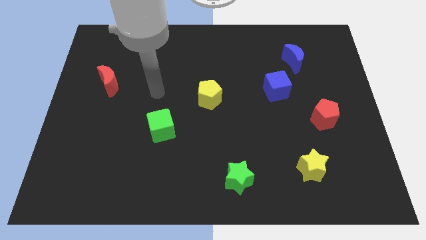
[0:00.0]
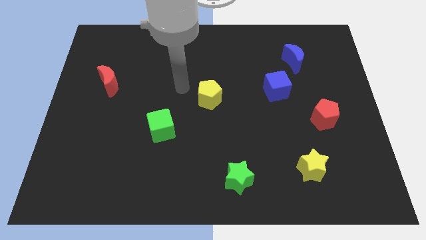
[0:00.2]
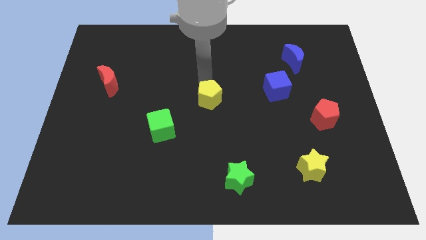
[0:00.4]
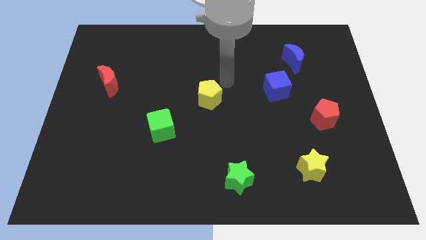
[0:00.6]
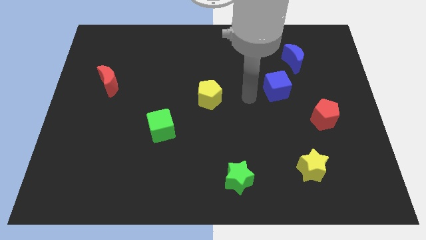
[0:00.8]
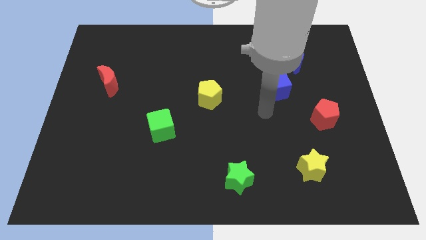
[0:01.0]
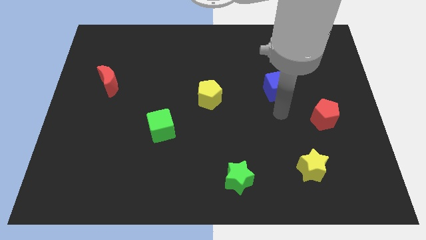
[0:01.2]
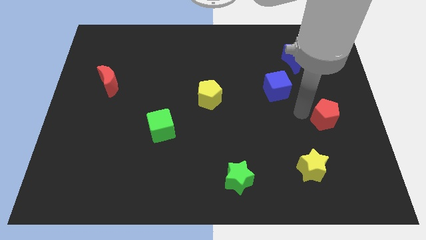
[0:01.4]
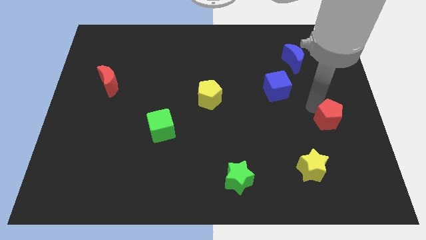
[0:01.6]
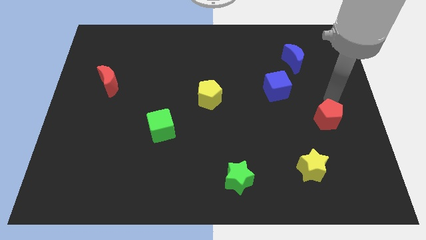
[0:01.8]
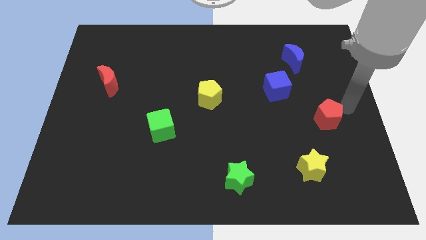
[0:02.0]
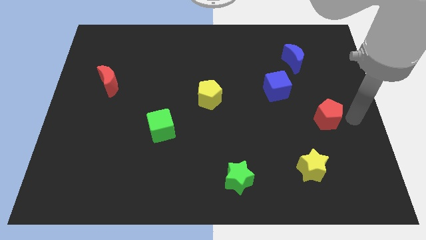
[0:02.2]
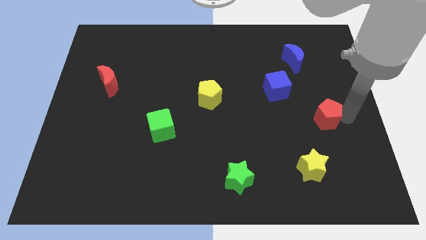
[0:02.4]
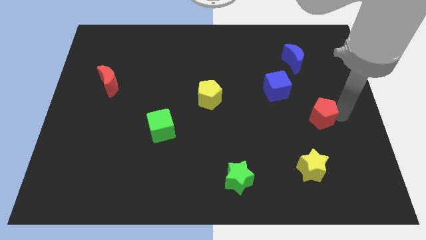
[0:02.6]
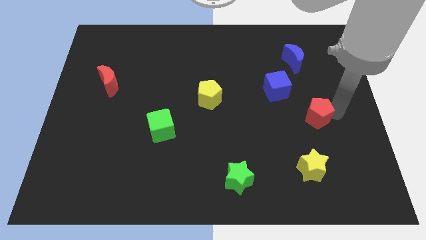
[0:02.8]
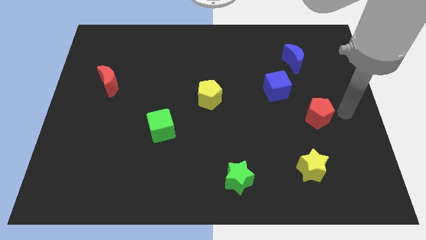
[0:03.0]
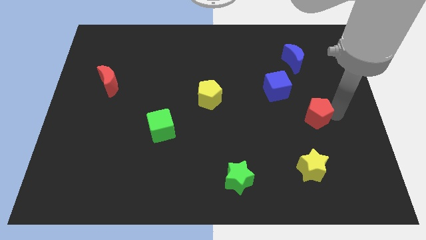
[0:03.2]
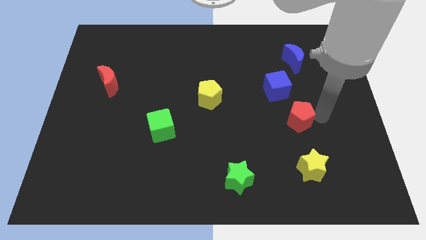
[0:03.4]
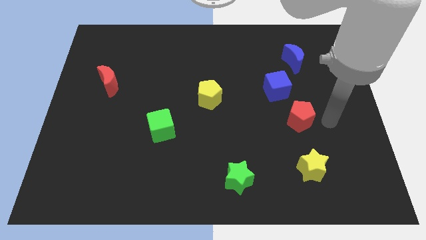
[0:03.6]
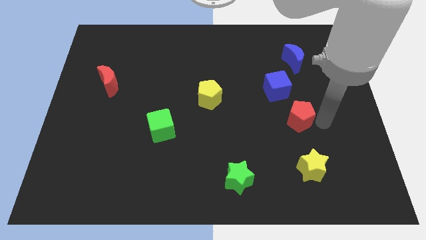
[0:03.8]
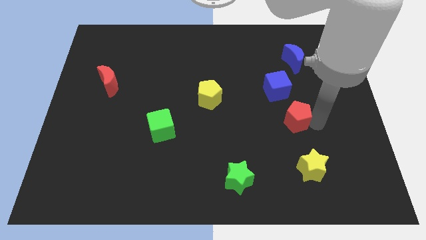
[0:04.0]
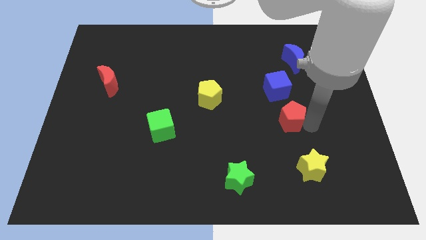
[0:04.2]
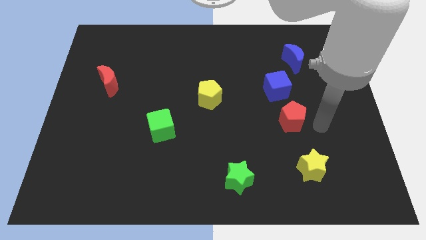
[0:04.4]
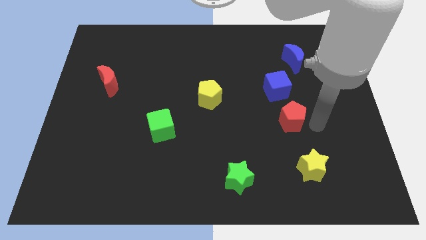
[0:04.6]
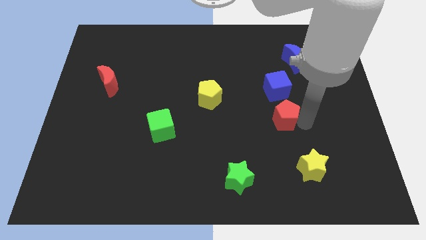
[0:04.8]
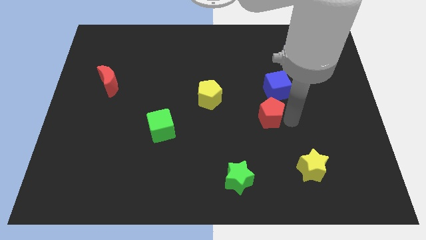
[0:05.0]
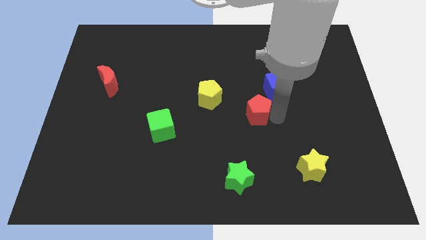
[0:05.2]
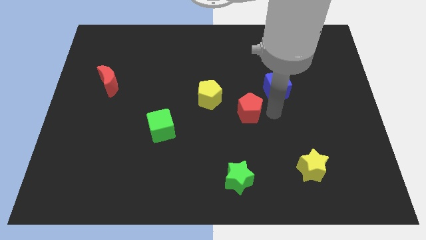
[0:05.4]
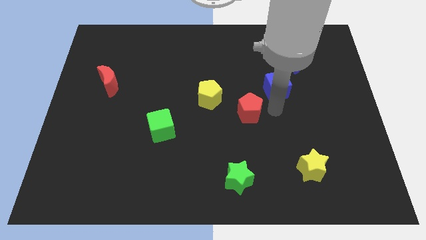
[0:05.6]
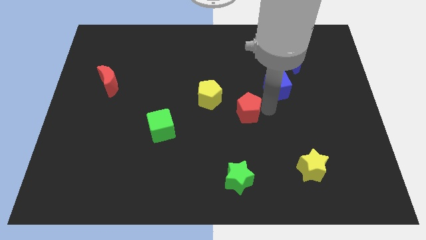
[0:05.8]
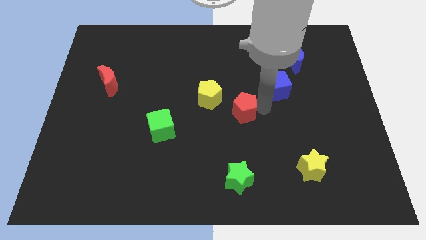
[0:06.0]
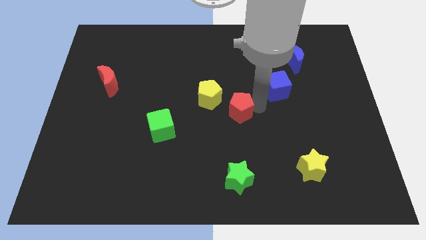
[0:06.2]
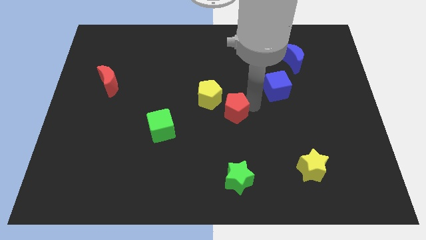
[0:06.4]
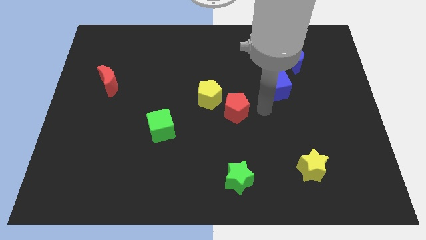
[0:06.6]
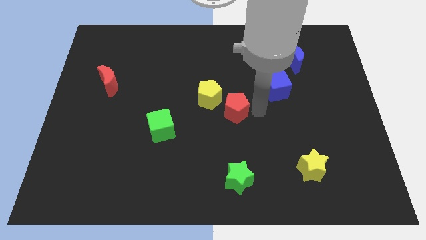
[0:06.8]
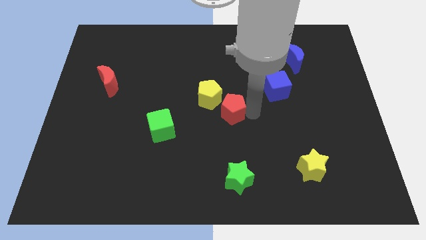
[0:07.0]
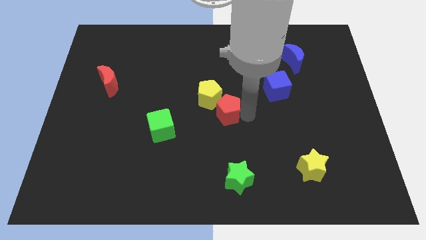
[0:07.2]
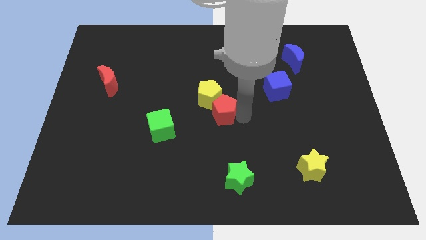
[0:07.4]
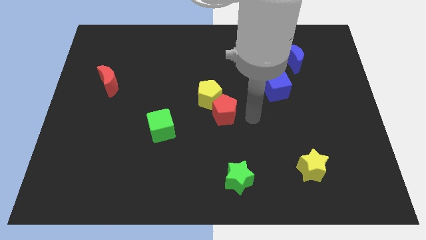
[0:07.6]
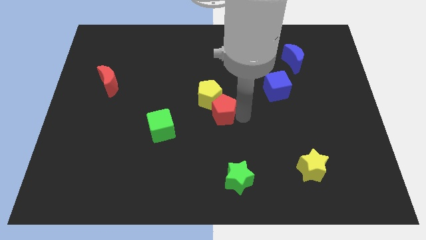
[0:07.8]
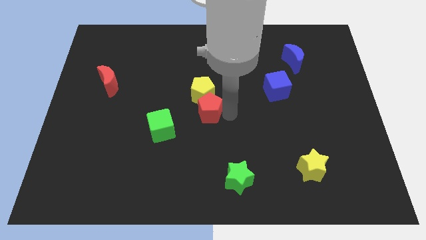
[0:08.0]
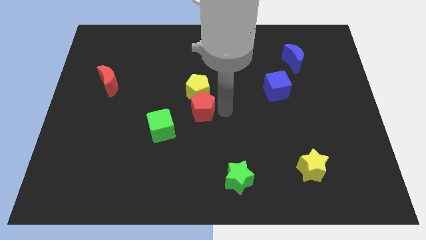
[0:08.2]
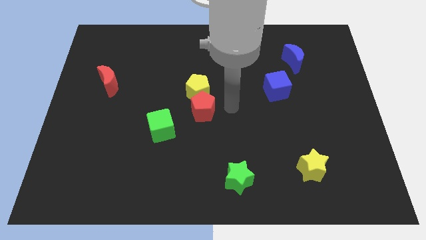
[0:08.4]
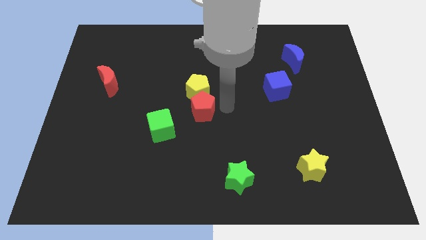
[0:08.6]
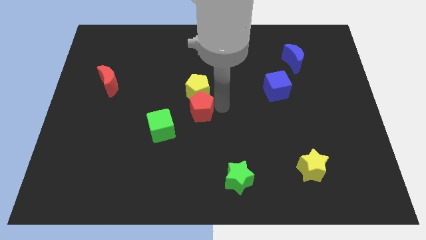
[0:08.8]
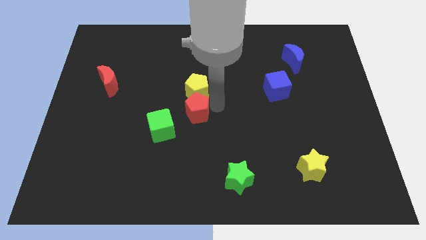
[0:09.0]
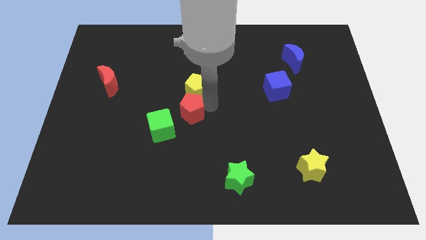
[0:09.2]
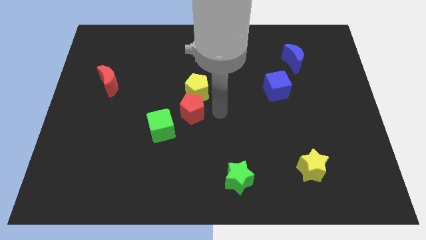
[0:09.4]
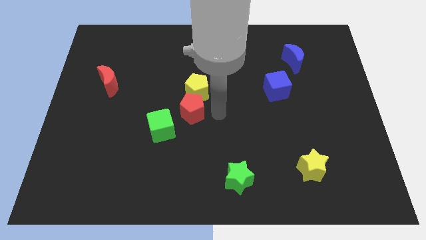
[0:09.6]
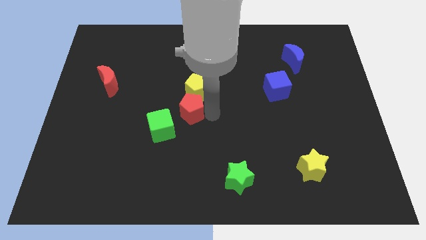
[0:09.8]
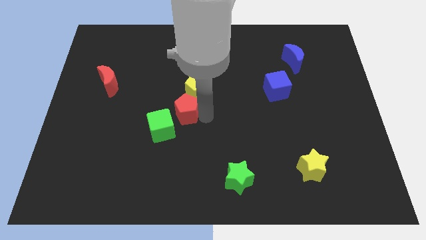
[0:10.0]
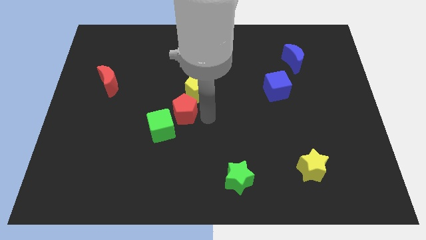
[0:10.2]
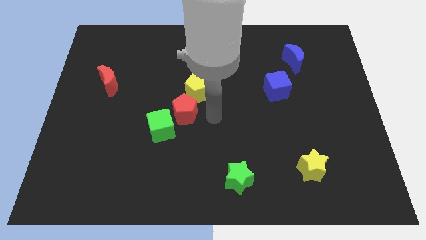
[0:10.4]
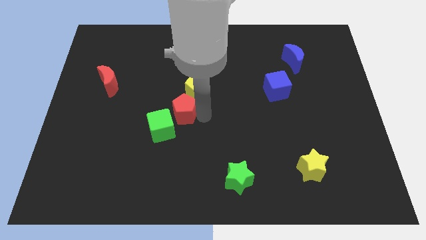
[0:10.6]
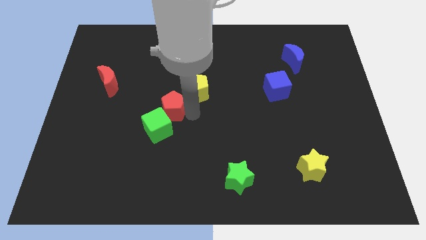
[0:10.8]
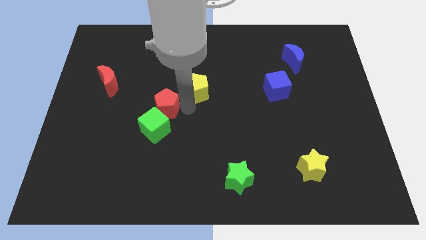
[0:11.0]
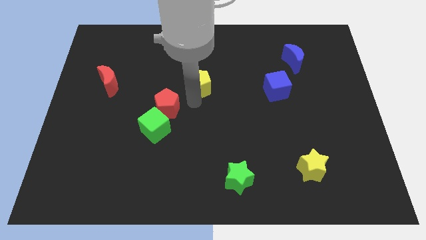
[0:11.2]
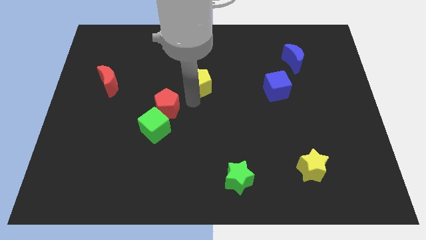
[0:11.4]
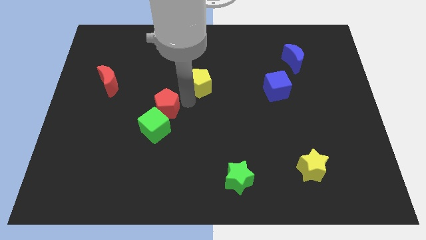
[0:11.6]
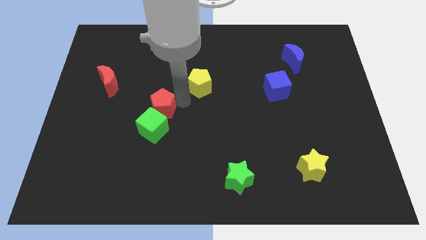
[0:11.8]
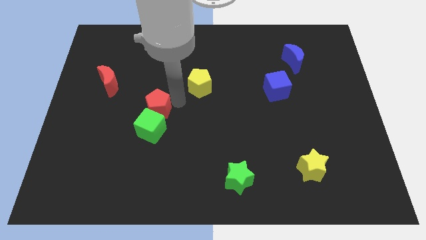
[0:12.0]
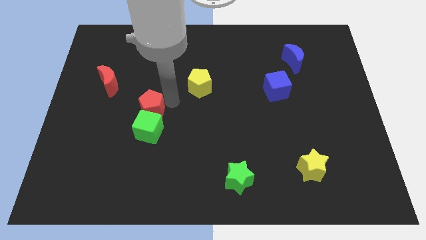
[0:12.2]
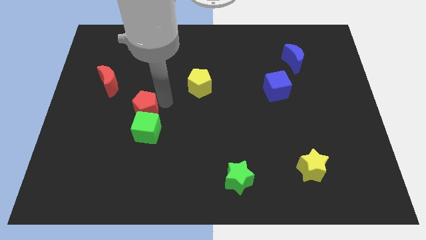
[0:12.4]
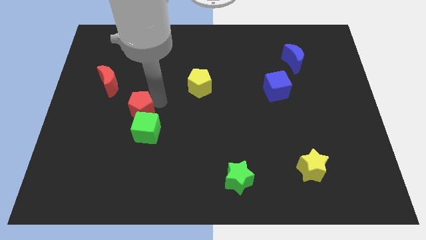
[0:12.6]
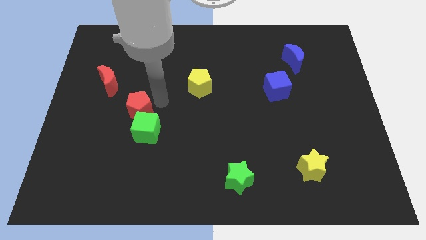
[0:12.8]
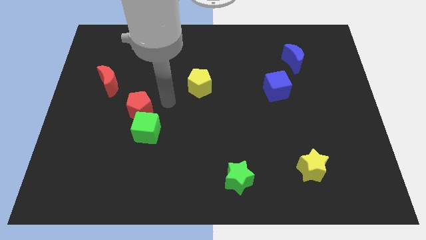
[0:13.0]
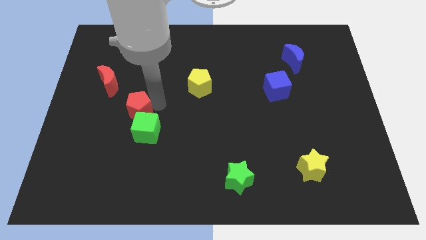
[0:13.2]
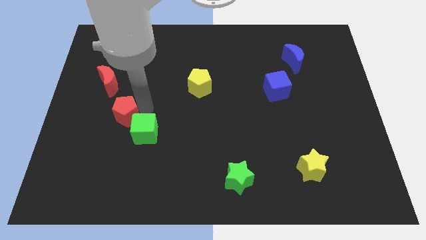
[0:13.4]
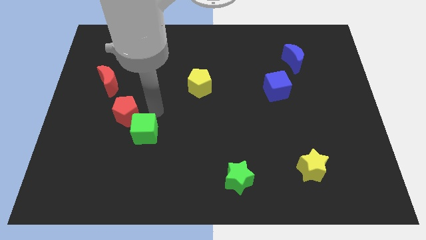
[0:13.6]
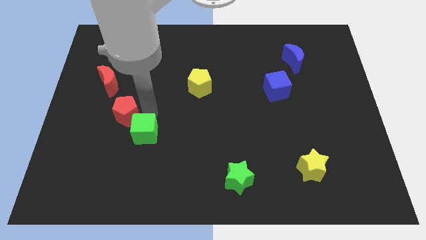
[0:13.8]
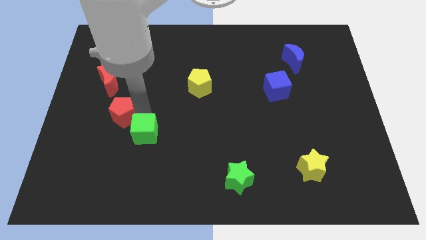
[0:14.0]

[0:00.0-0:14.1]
slide the red pentagon to the bottom side of the red moon
